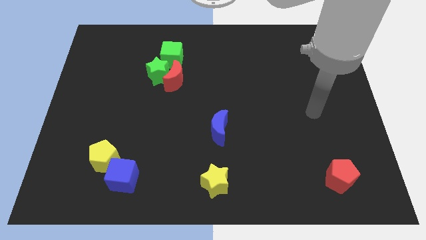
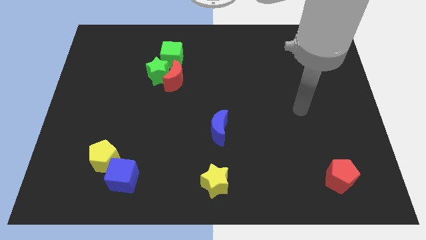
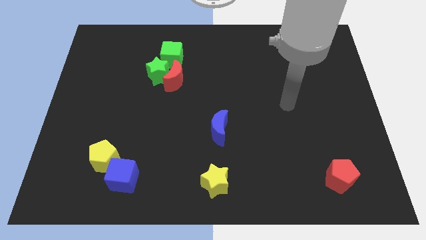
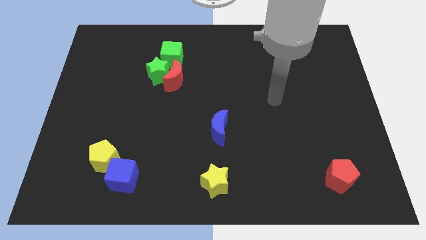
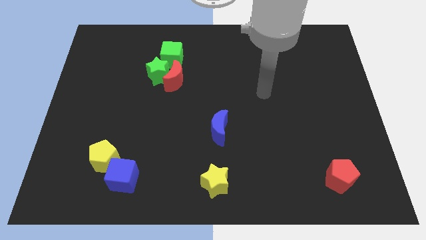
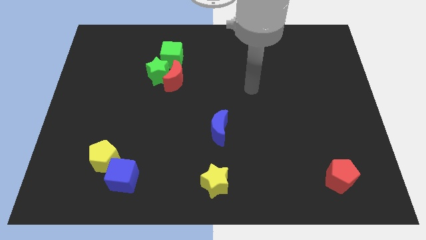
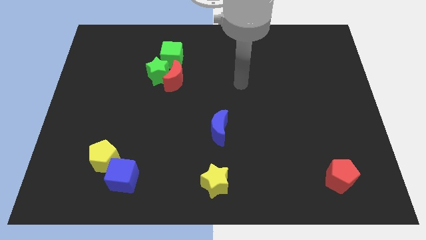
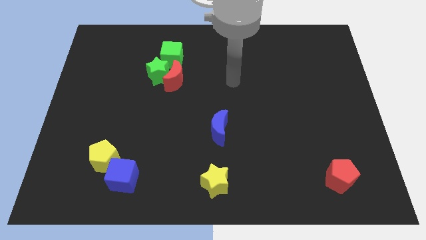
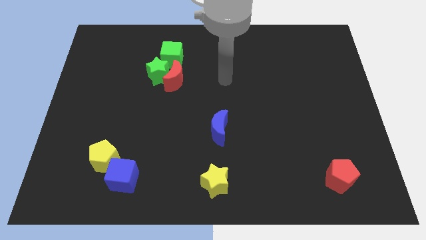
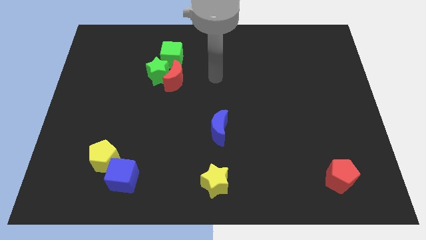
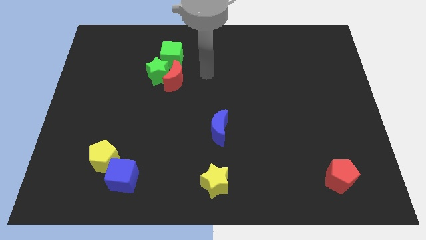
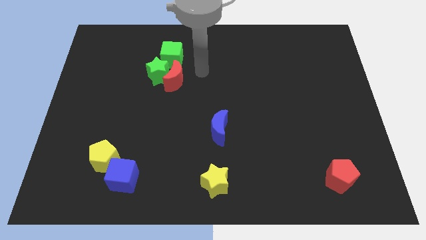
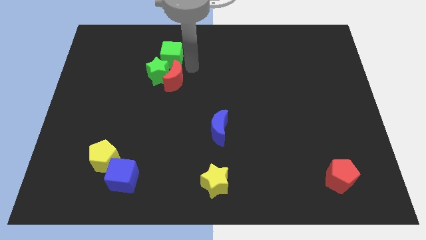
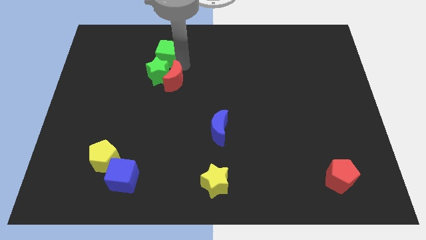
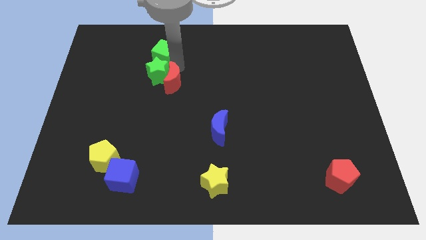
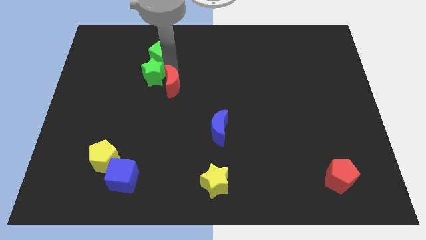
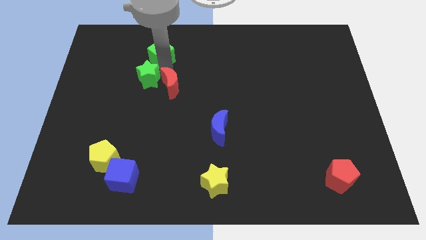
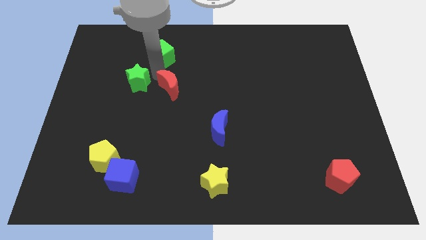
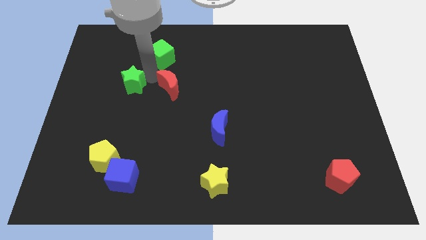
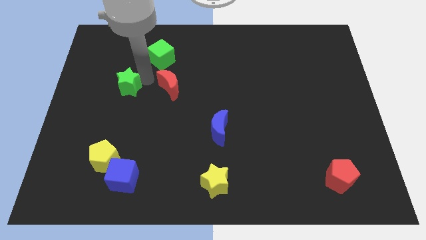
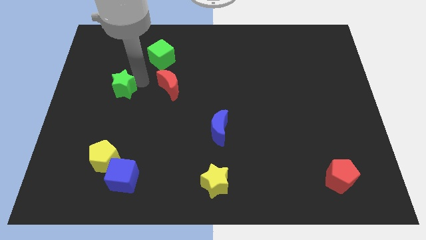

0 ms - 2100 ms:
pull the green star apart from the red moon and green cube

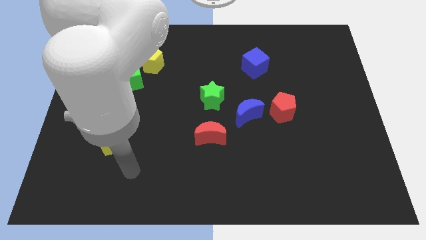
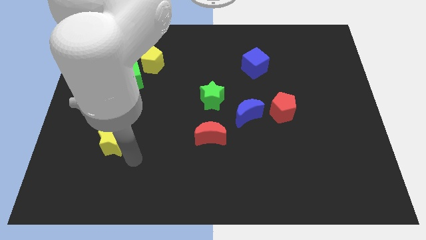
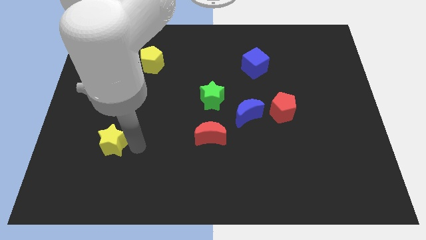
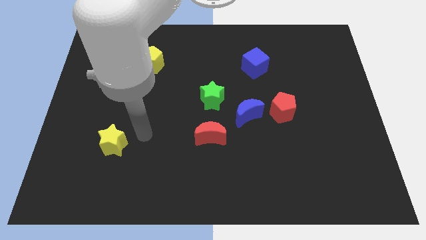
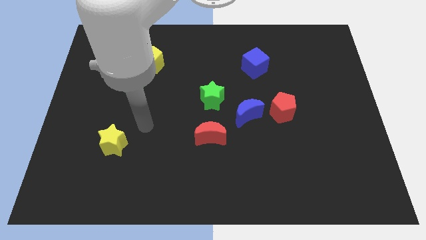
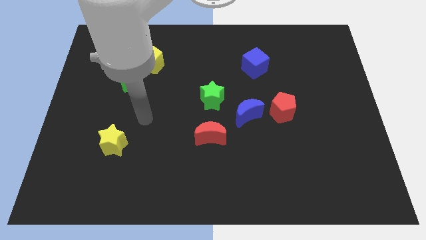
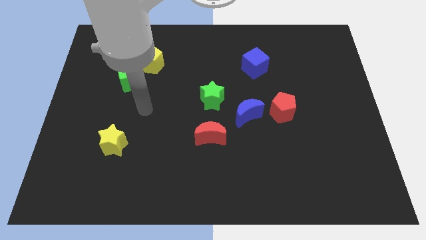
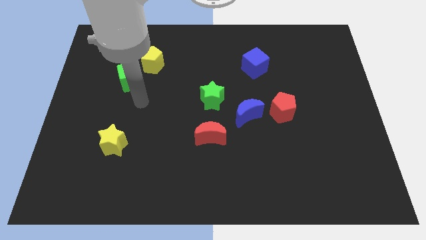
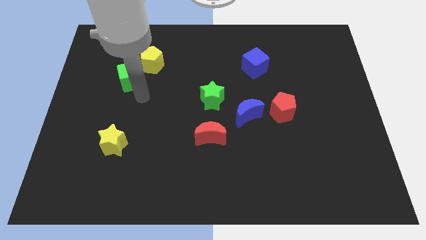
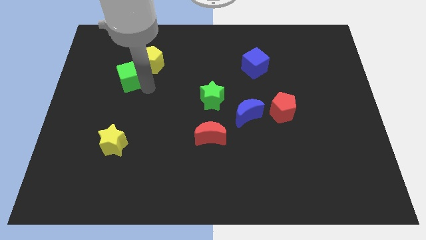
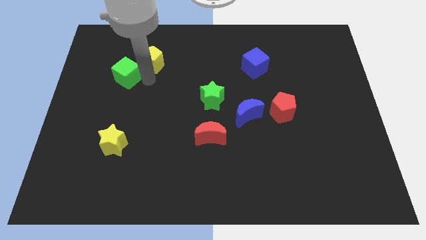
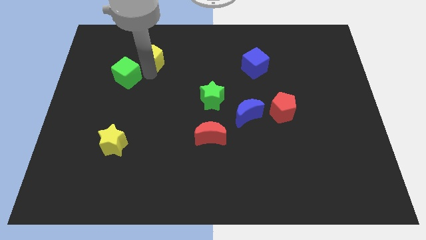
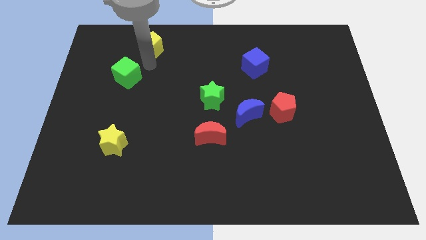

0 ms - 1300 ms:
pull the green cube apart from the yellow pentagon

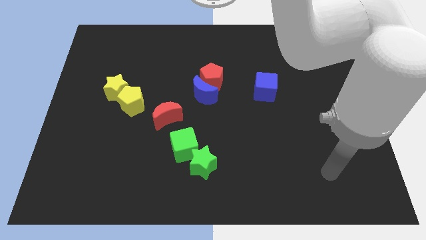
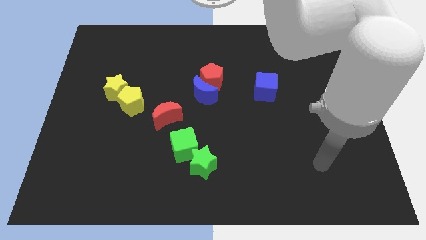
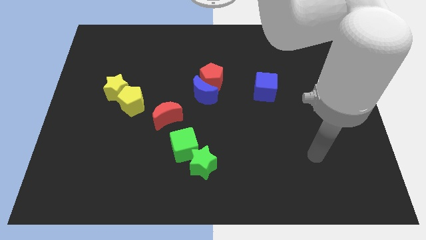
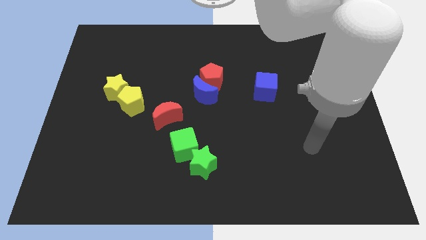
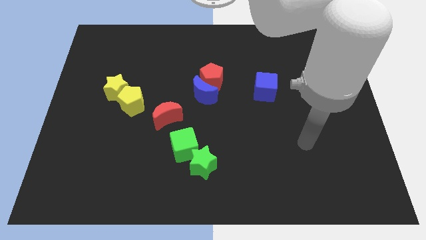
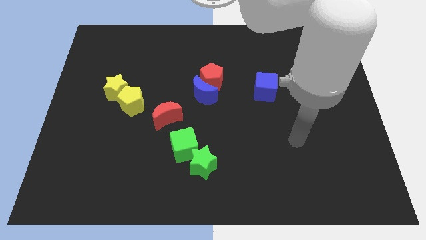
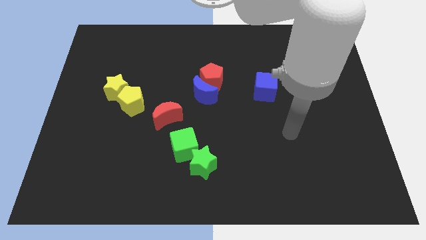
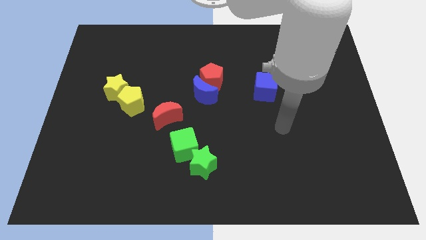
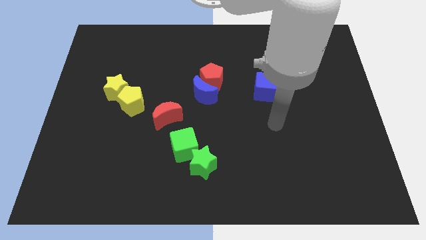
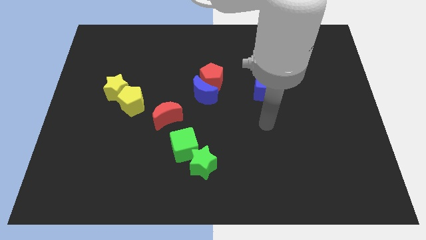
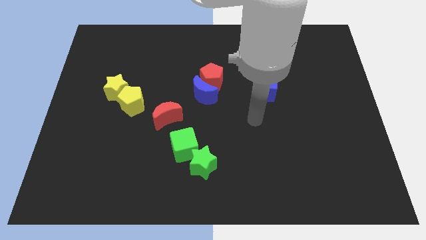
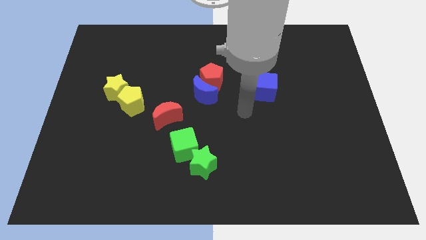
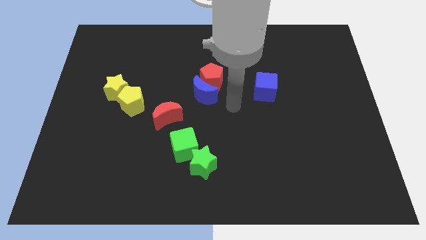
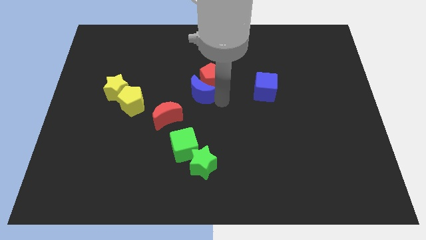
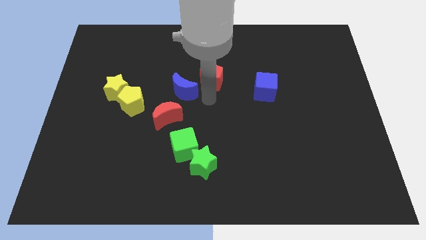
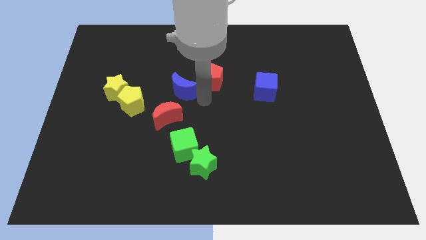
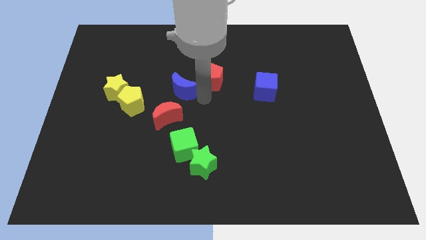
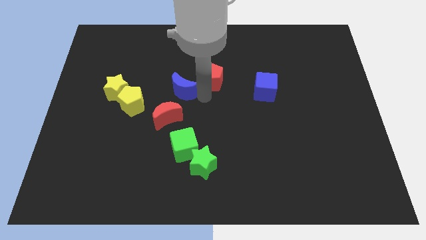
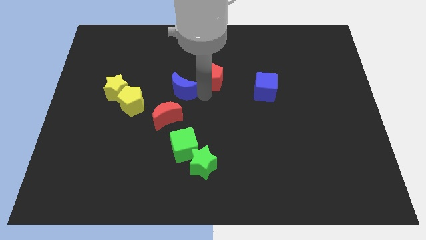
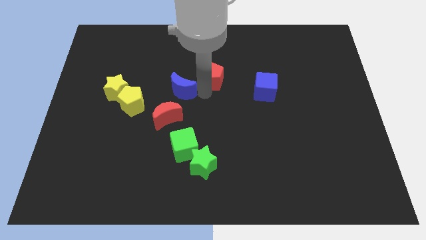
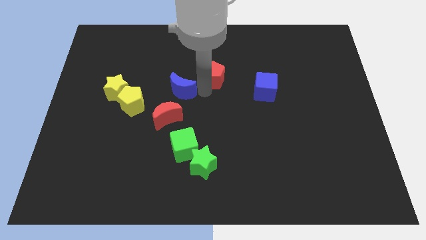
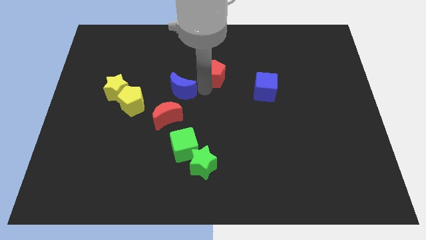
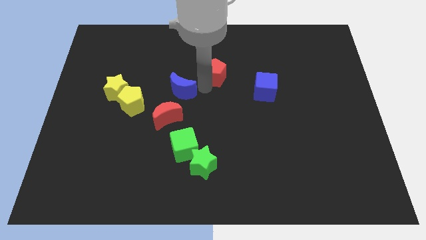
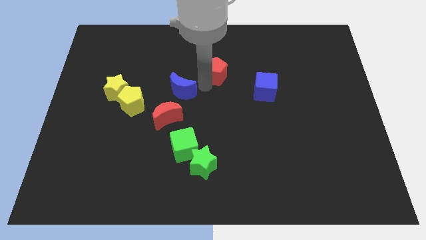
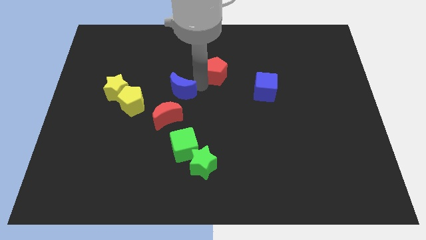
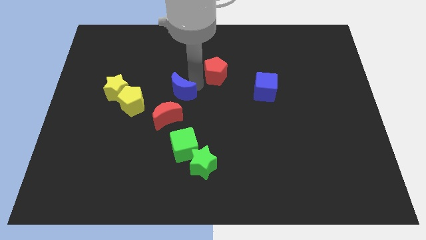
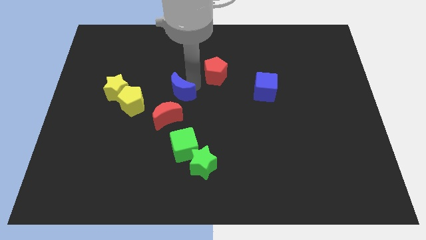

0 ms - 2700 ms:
move the red pentagon away from the blue moon

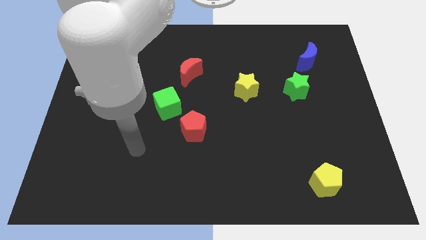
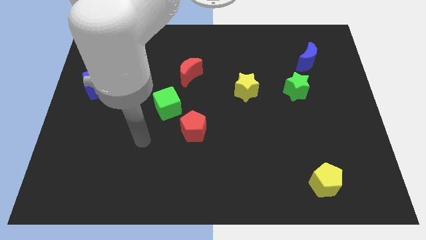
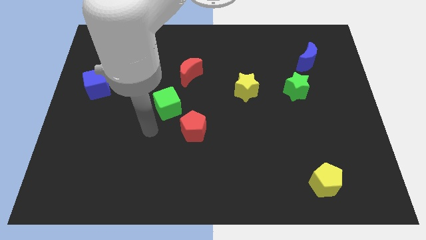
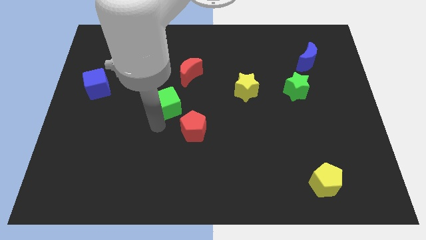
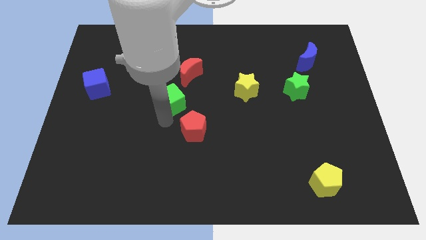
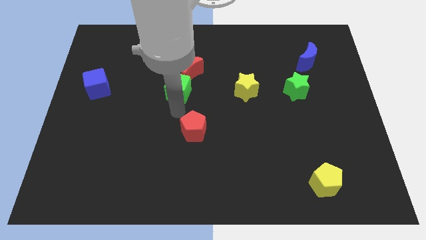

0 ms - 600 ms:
pull the red pentagon apart from the green cube

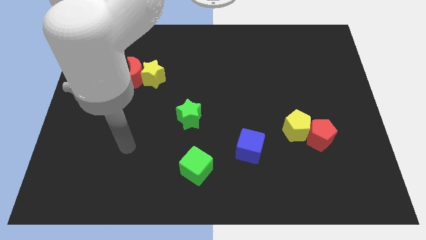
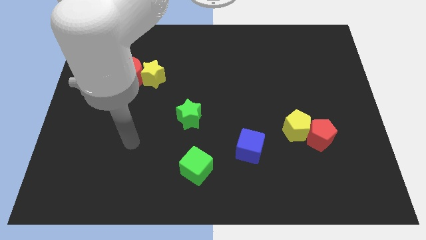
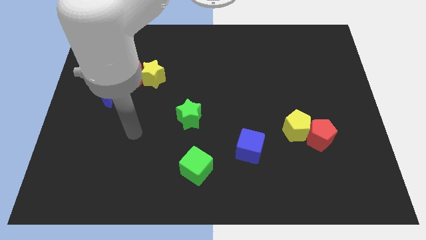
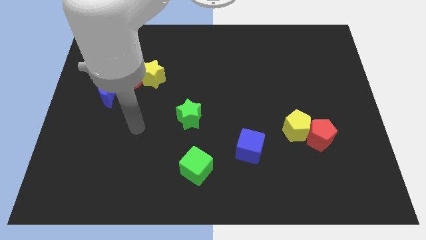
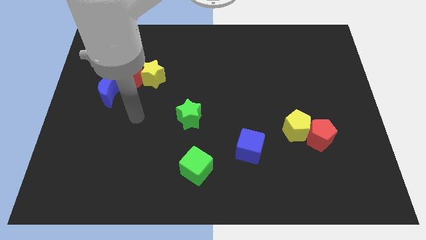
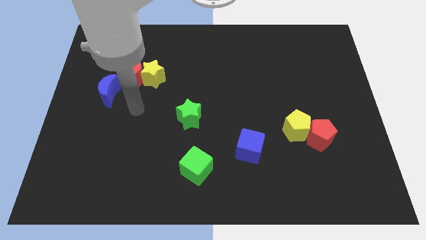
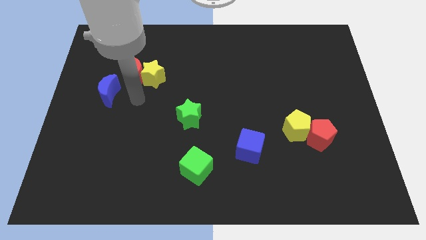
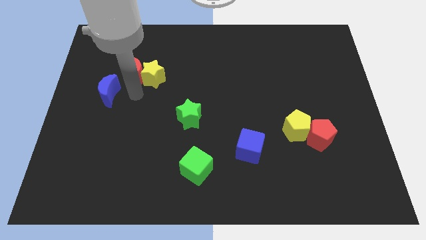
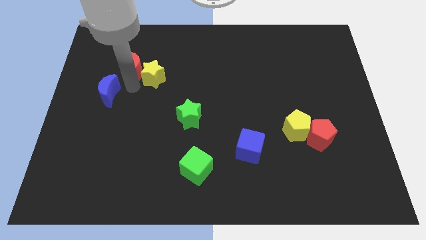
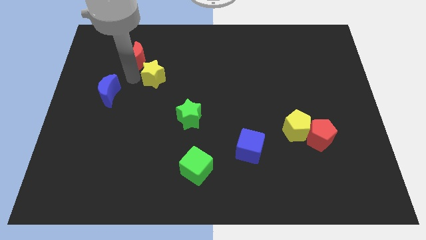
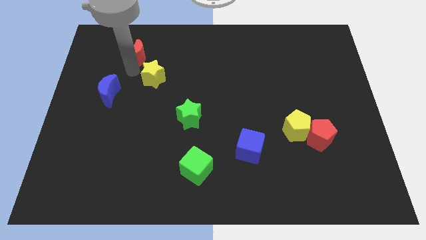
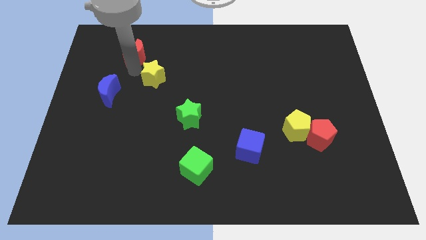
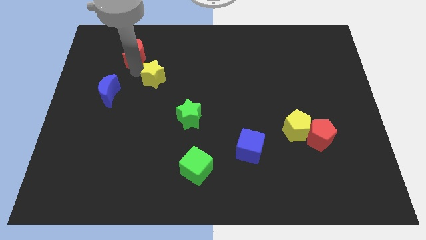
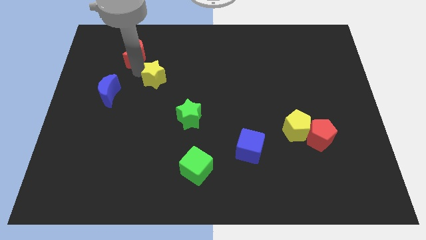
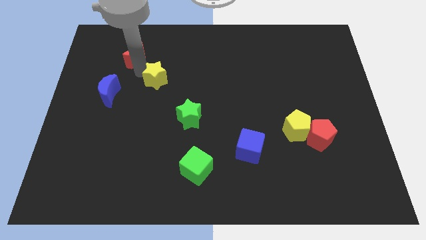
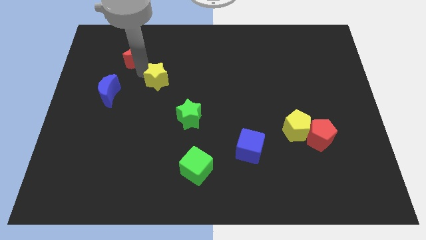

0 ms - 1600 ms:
separate the yellow star from the red moon

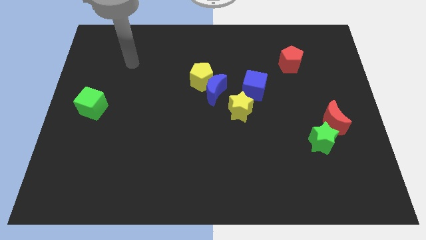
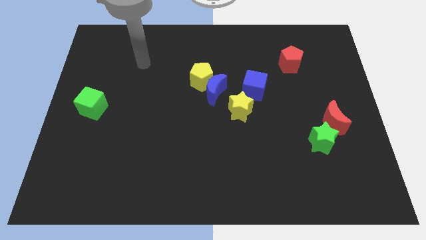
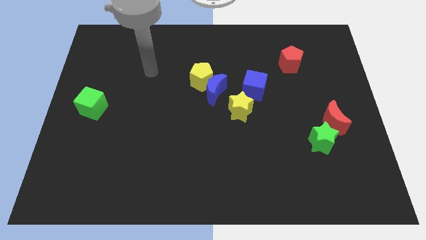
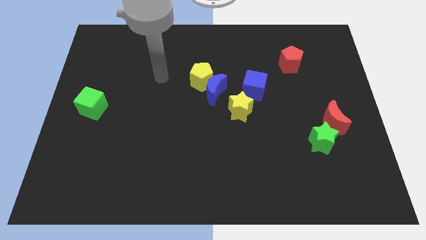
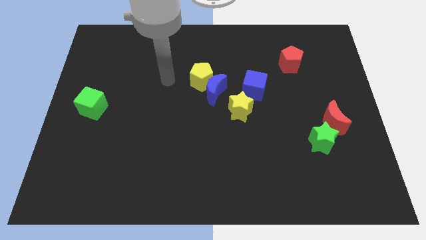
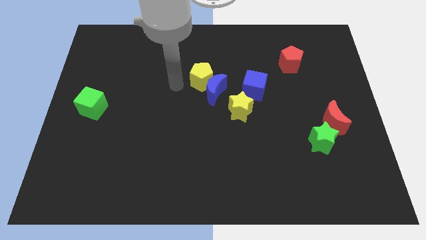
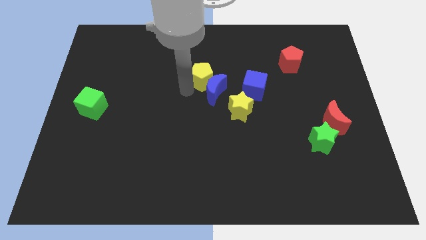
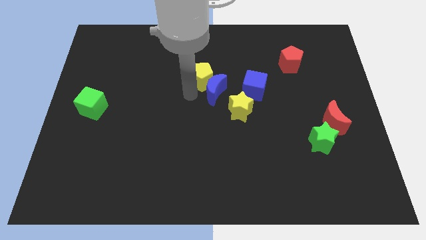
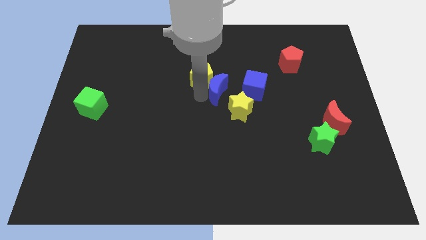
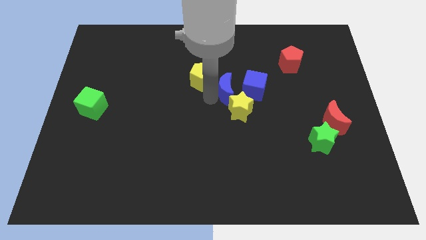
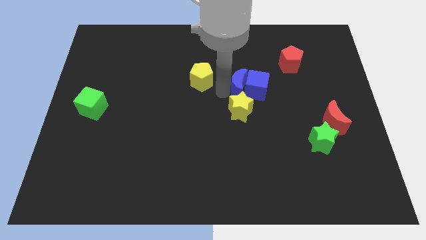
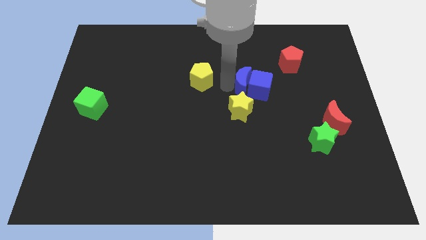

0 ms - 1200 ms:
separate the yellow pentagon from the blue moon
